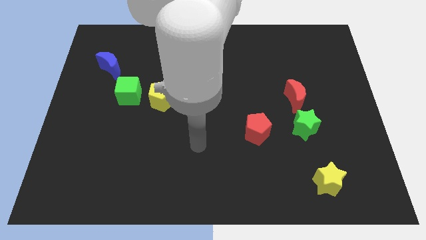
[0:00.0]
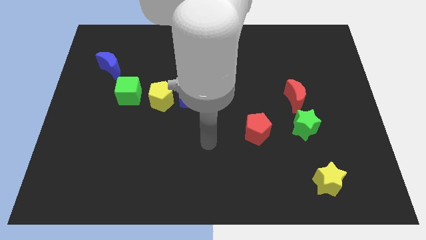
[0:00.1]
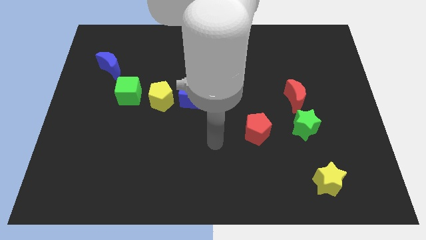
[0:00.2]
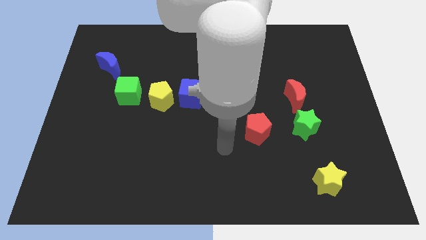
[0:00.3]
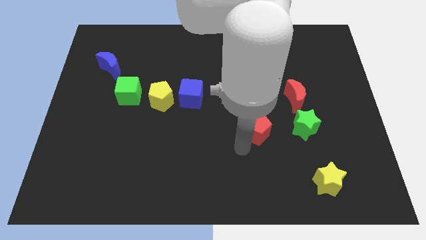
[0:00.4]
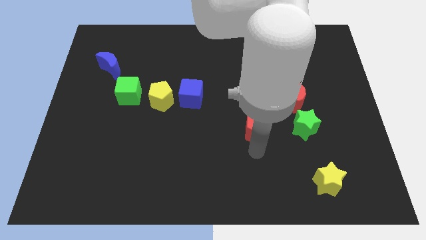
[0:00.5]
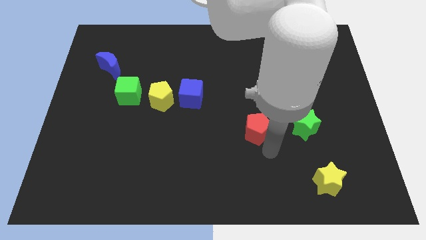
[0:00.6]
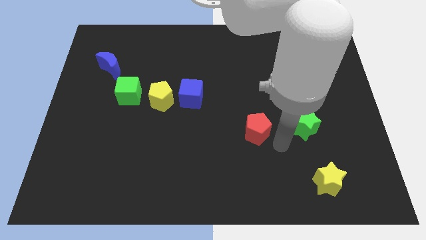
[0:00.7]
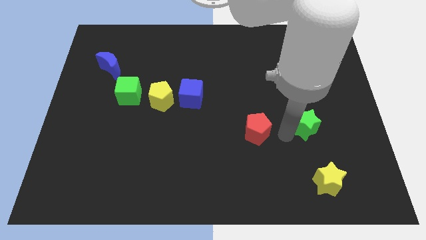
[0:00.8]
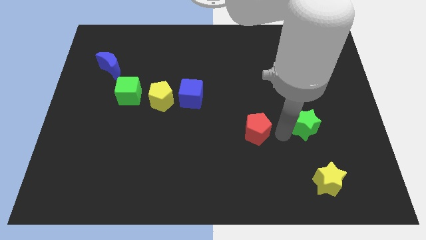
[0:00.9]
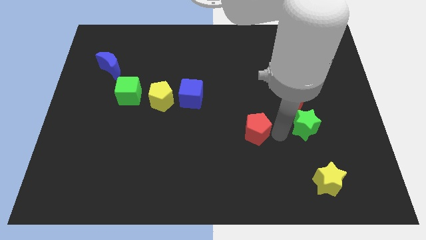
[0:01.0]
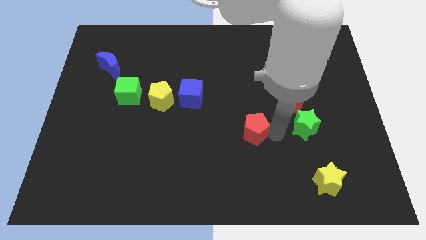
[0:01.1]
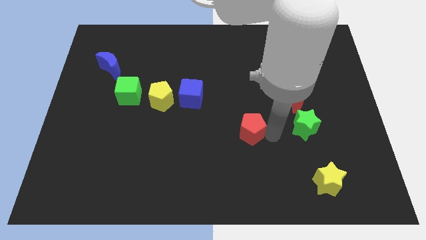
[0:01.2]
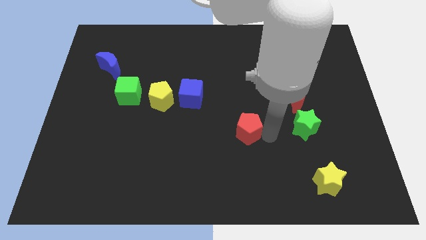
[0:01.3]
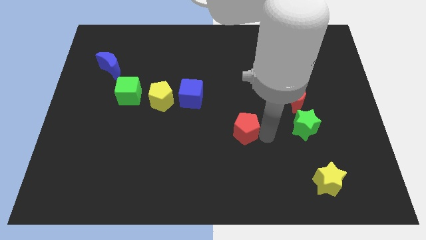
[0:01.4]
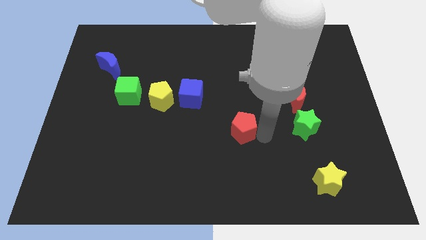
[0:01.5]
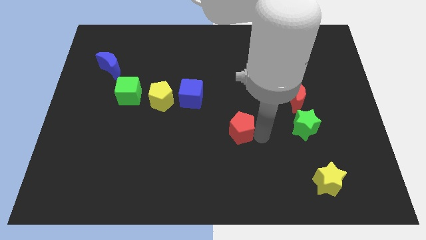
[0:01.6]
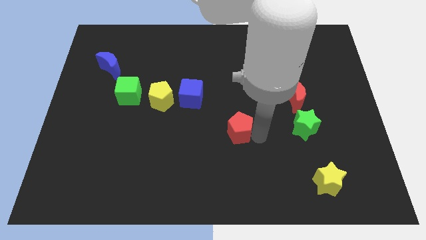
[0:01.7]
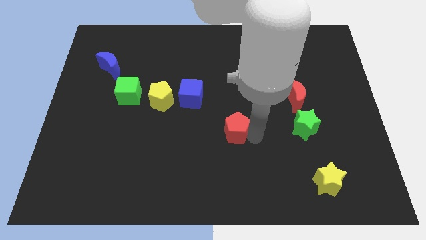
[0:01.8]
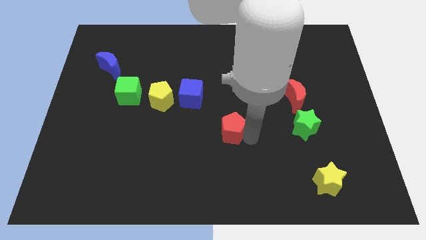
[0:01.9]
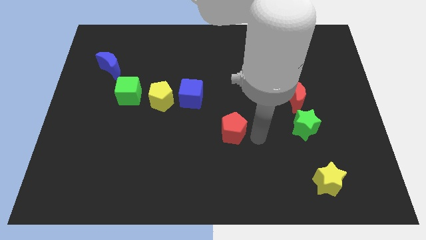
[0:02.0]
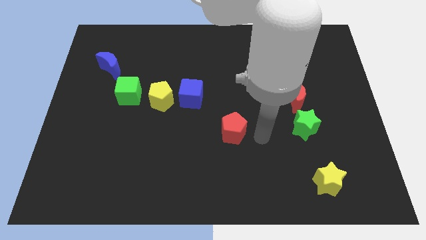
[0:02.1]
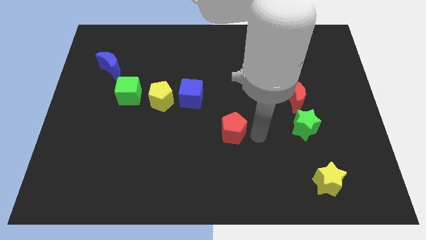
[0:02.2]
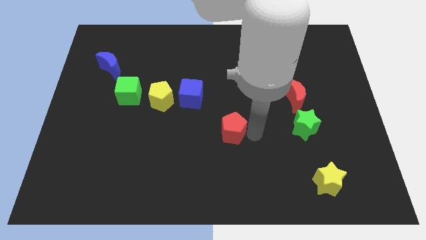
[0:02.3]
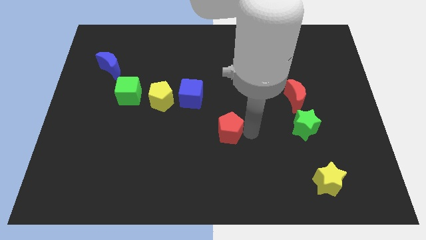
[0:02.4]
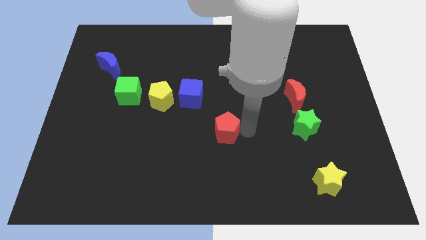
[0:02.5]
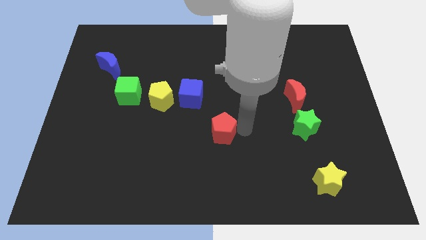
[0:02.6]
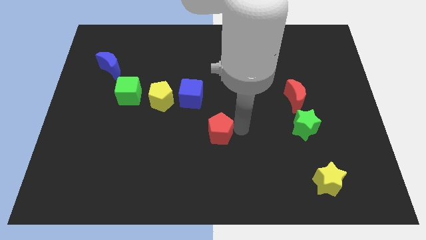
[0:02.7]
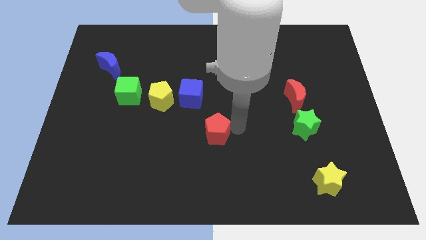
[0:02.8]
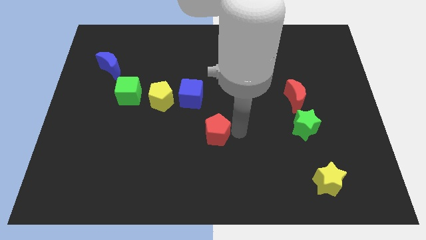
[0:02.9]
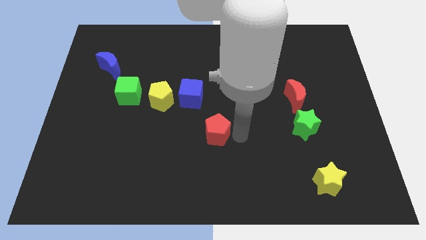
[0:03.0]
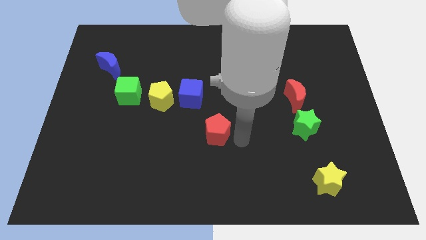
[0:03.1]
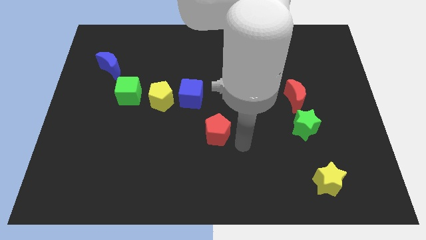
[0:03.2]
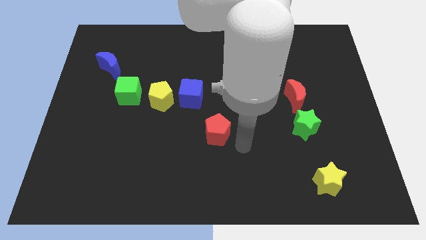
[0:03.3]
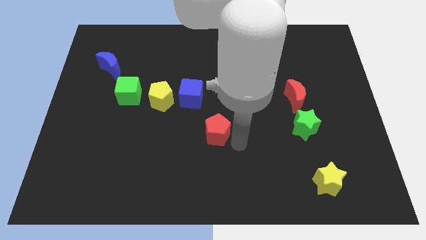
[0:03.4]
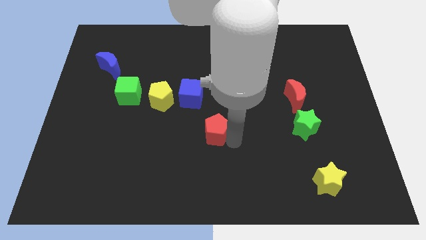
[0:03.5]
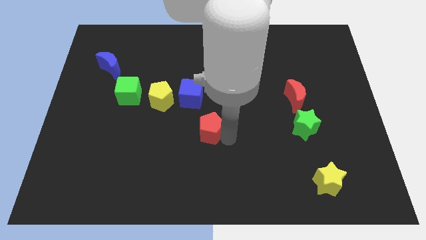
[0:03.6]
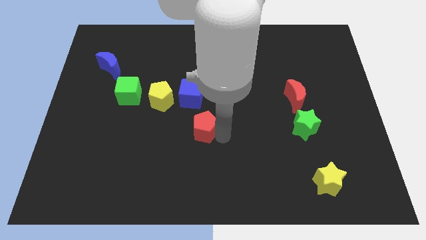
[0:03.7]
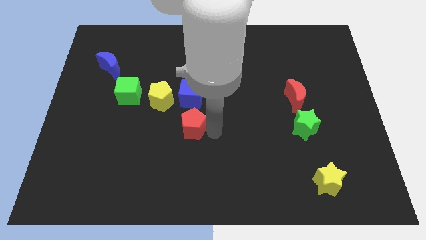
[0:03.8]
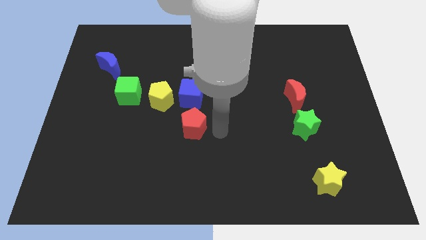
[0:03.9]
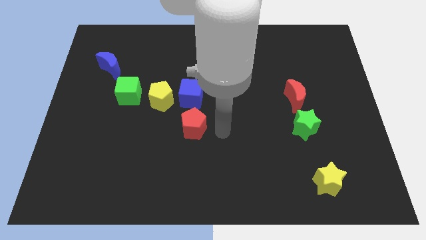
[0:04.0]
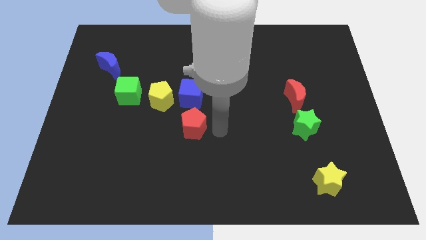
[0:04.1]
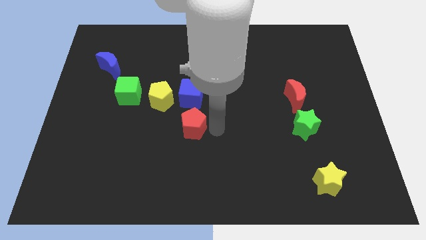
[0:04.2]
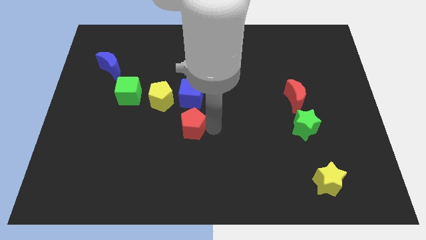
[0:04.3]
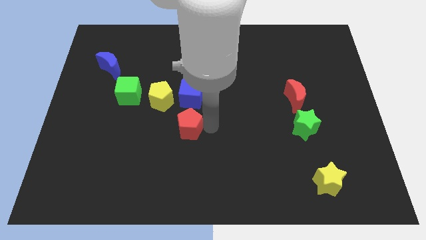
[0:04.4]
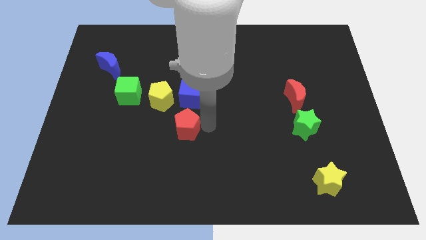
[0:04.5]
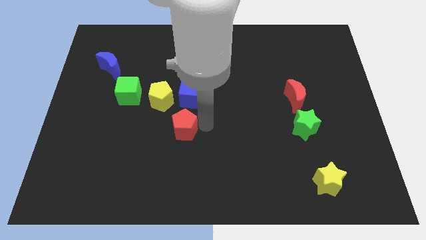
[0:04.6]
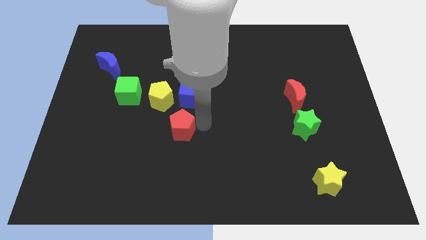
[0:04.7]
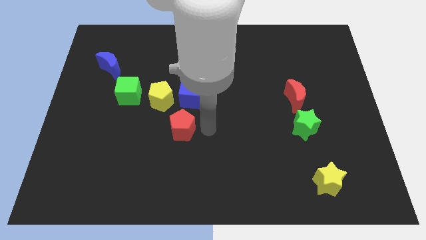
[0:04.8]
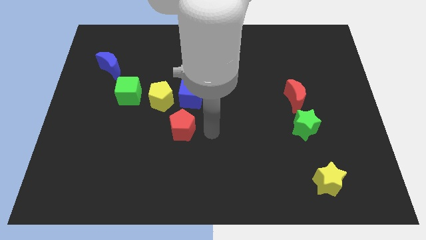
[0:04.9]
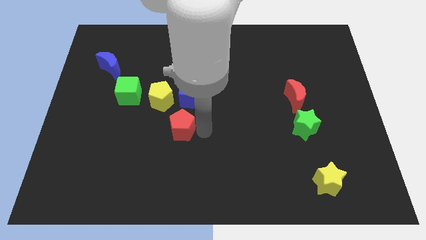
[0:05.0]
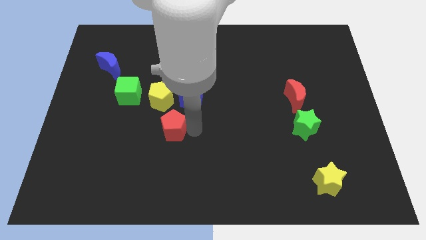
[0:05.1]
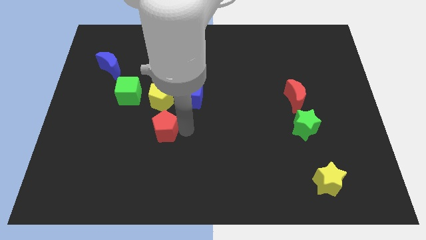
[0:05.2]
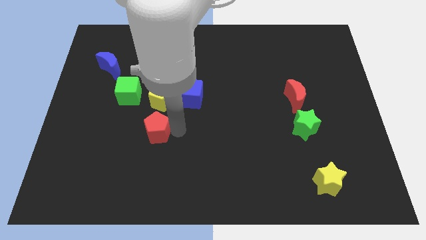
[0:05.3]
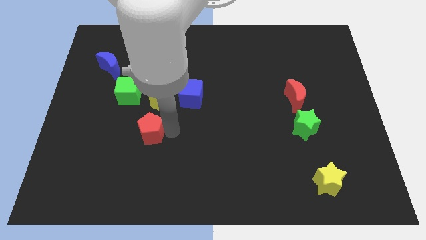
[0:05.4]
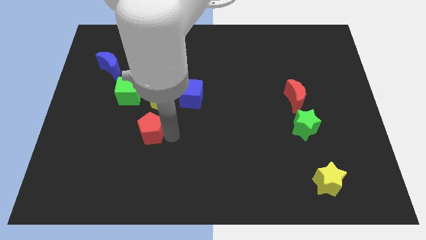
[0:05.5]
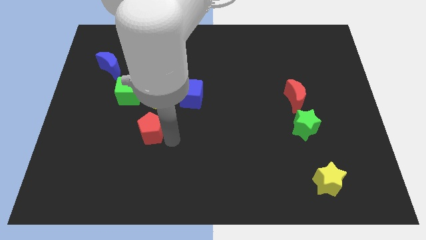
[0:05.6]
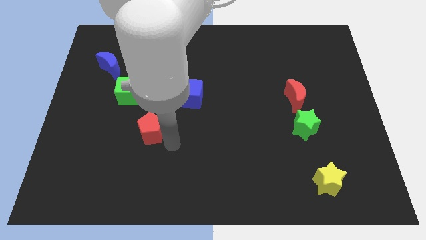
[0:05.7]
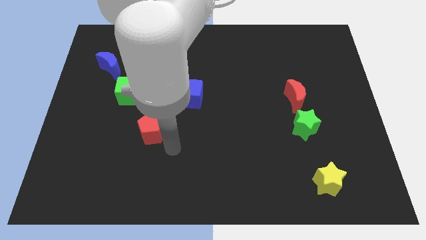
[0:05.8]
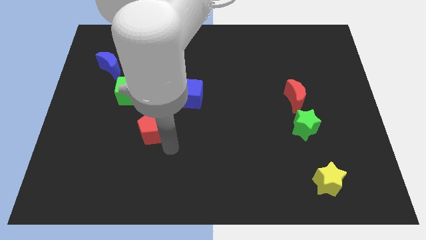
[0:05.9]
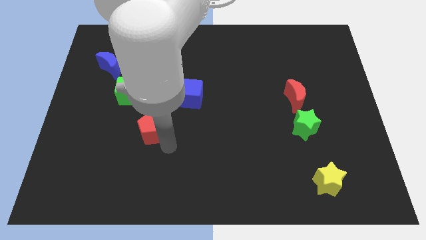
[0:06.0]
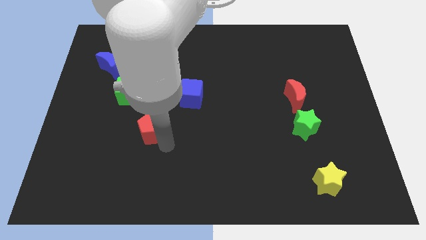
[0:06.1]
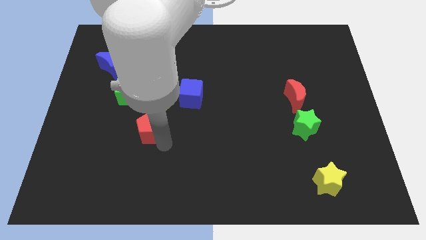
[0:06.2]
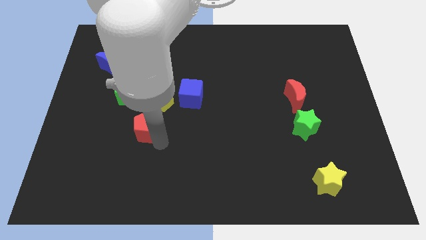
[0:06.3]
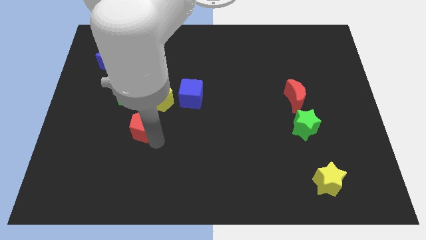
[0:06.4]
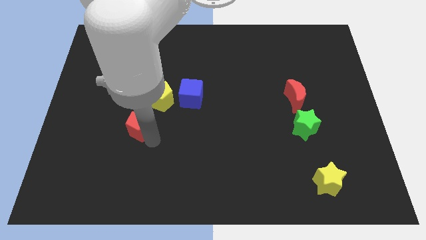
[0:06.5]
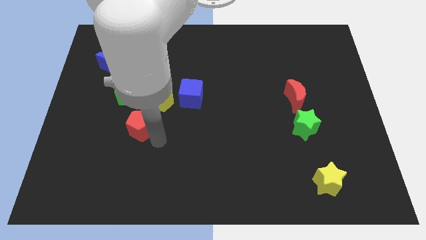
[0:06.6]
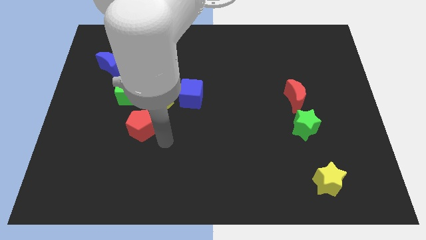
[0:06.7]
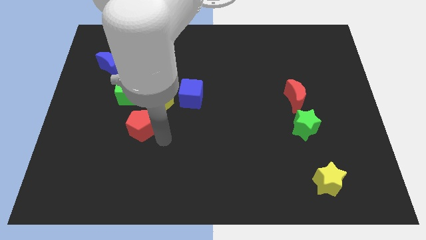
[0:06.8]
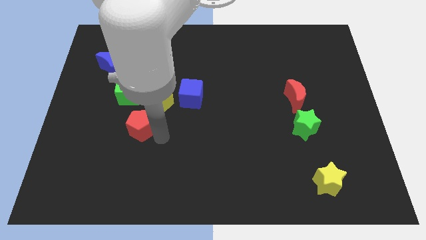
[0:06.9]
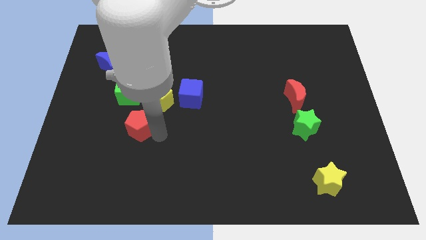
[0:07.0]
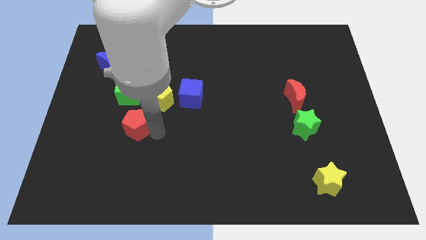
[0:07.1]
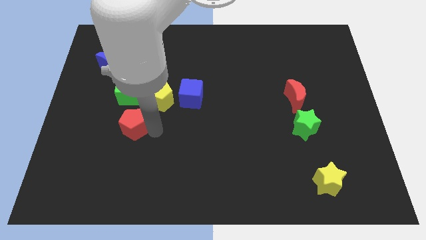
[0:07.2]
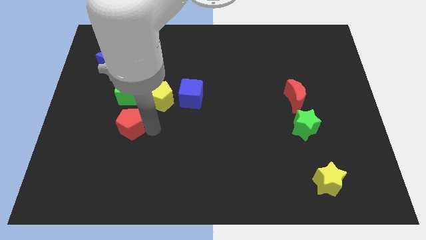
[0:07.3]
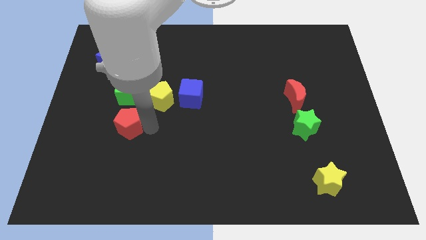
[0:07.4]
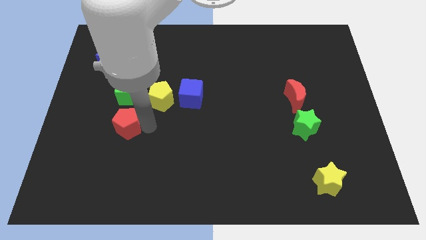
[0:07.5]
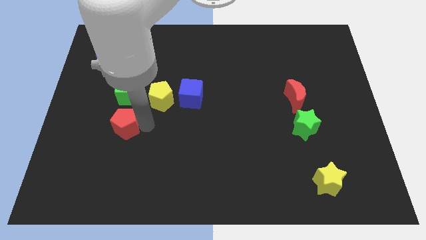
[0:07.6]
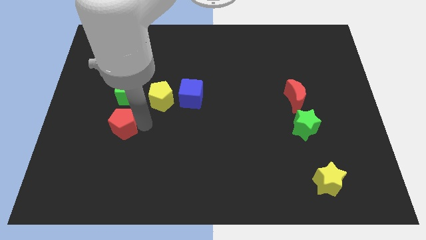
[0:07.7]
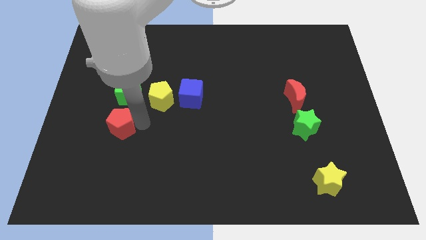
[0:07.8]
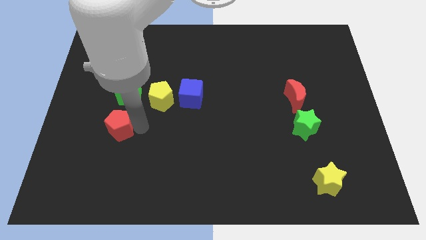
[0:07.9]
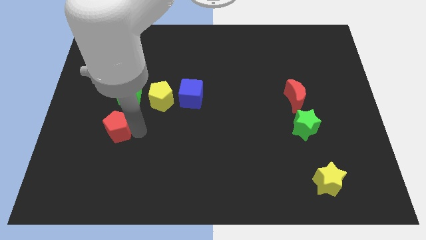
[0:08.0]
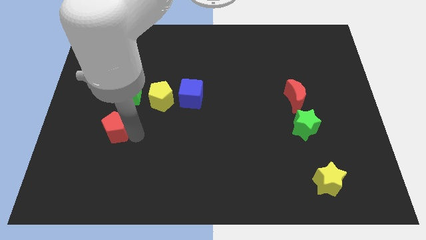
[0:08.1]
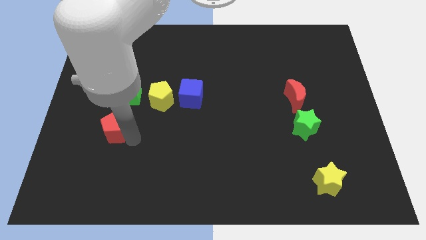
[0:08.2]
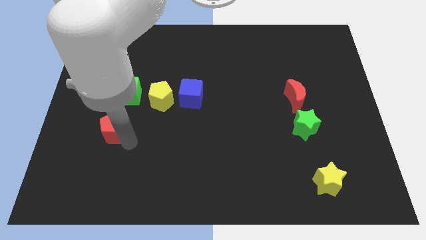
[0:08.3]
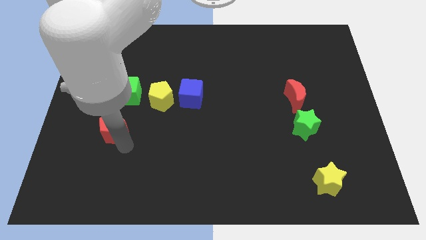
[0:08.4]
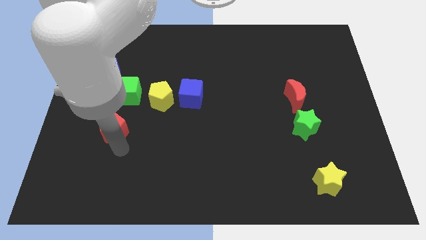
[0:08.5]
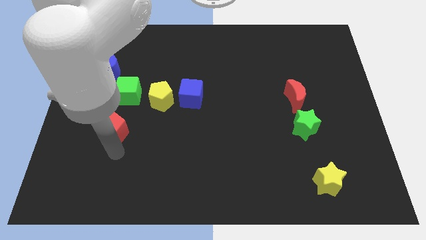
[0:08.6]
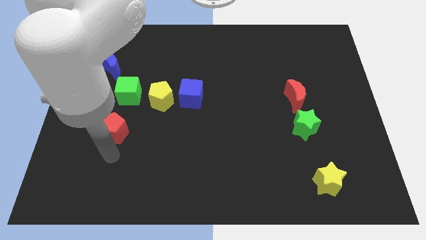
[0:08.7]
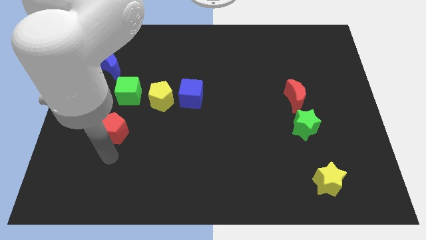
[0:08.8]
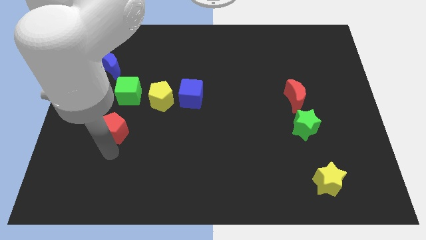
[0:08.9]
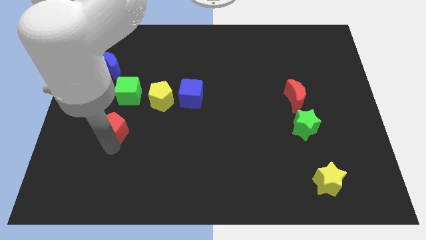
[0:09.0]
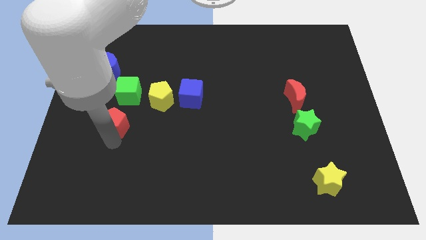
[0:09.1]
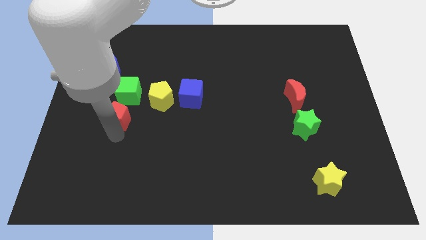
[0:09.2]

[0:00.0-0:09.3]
push the red pentagon to the bottom left of the green cube
